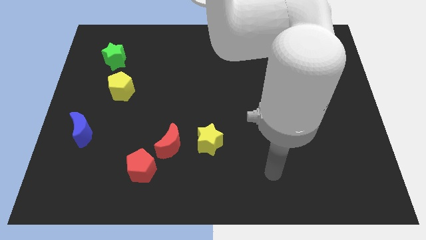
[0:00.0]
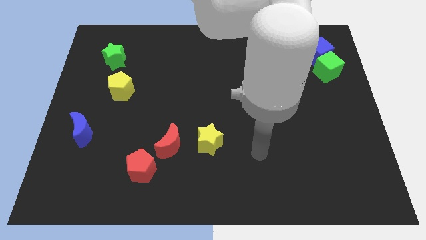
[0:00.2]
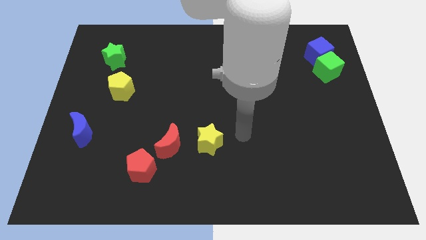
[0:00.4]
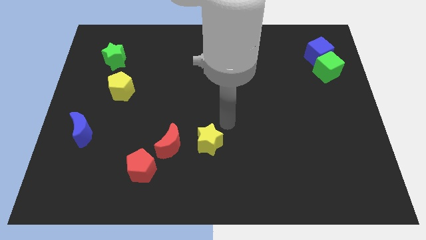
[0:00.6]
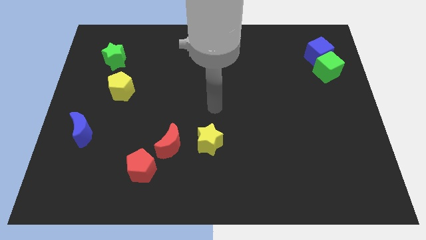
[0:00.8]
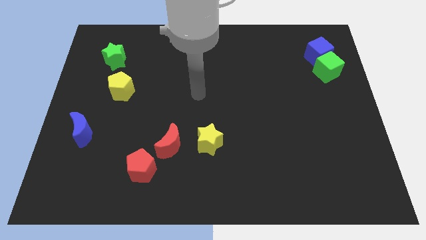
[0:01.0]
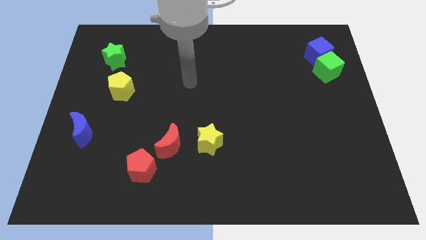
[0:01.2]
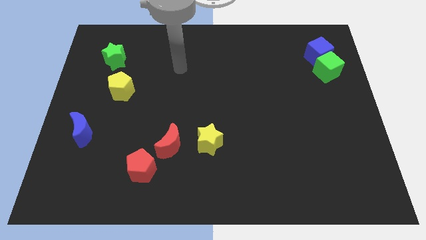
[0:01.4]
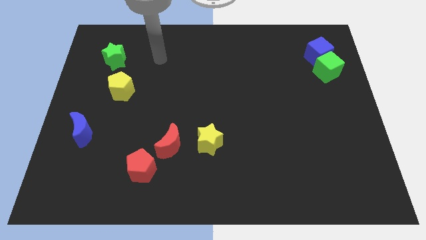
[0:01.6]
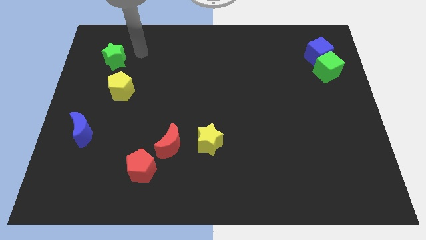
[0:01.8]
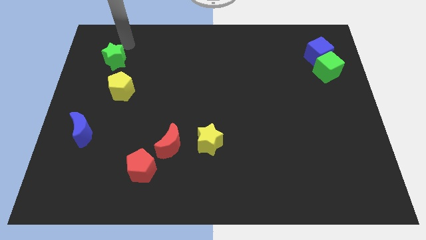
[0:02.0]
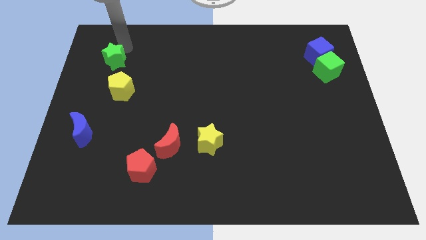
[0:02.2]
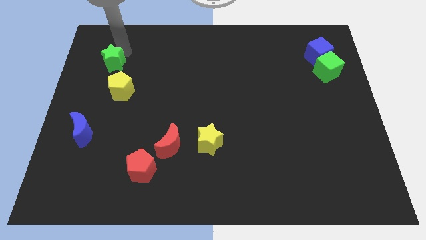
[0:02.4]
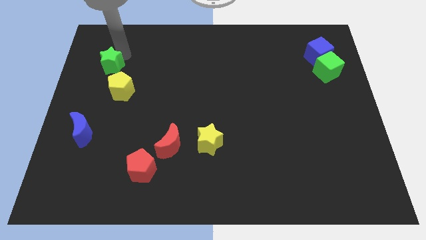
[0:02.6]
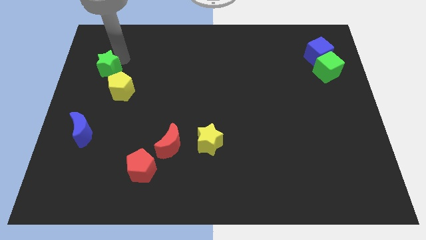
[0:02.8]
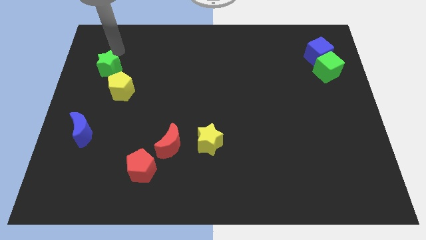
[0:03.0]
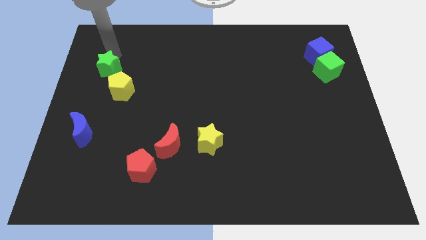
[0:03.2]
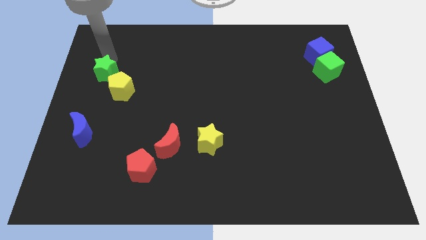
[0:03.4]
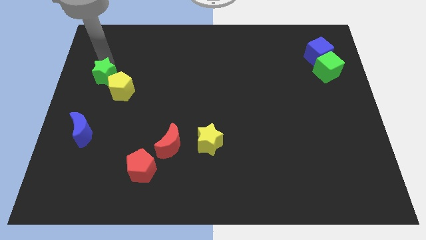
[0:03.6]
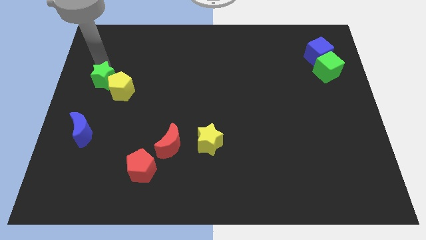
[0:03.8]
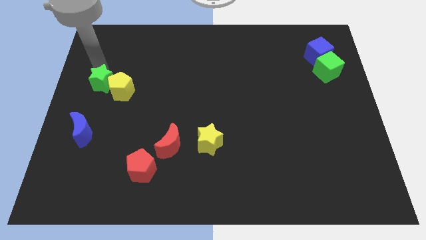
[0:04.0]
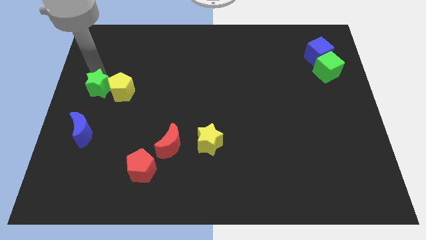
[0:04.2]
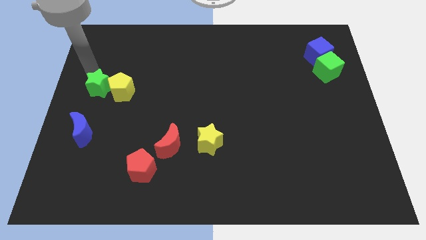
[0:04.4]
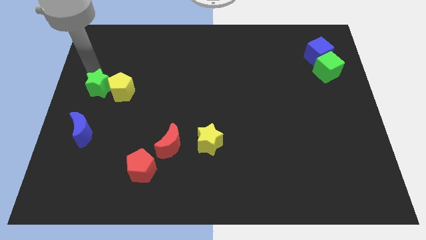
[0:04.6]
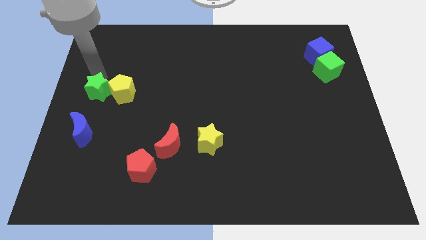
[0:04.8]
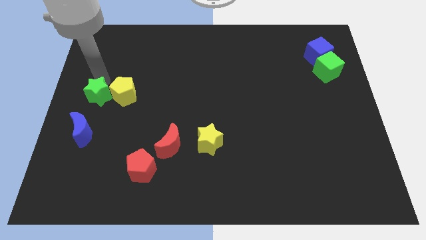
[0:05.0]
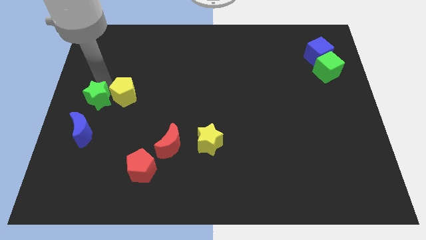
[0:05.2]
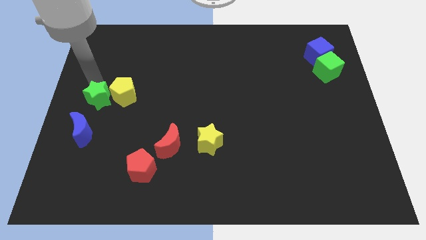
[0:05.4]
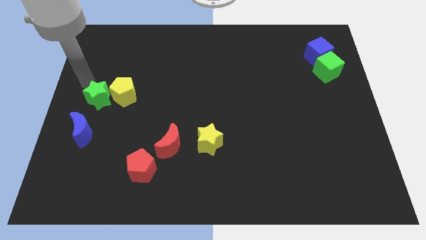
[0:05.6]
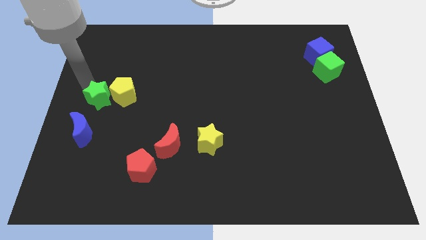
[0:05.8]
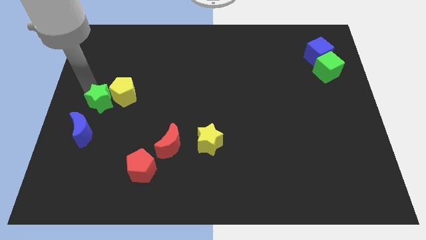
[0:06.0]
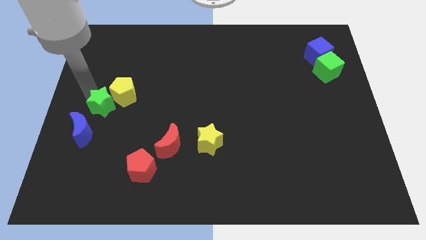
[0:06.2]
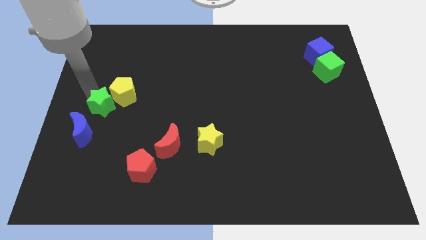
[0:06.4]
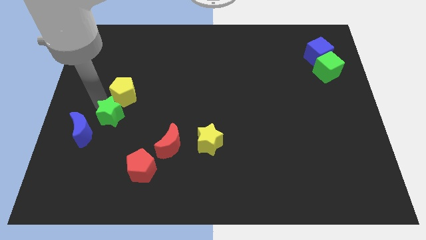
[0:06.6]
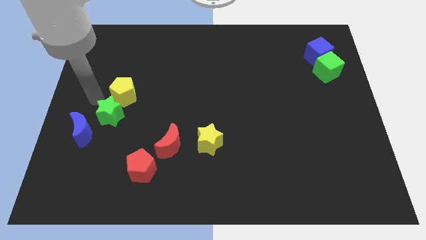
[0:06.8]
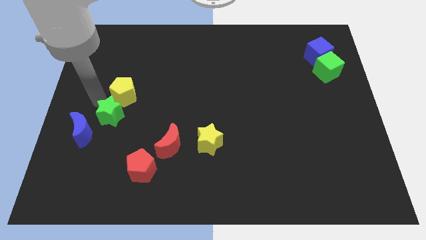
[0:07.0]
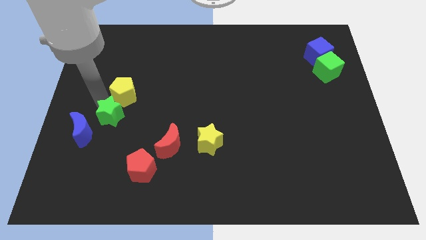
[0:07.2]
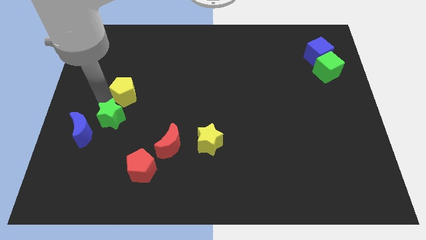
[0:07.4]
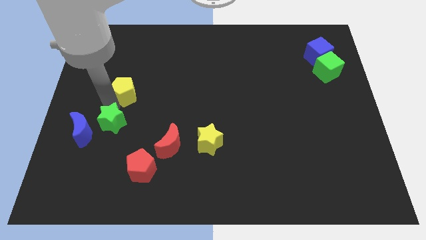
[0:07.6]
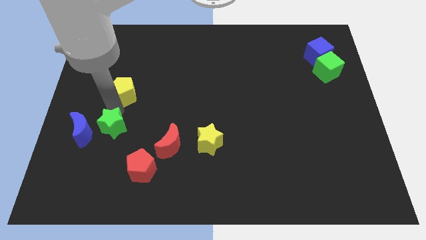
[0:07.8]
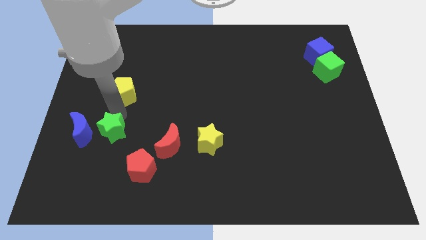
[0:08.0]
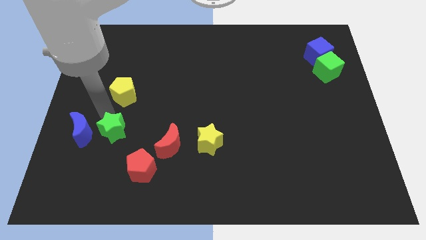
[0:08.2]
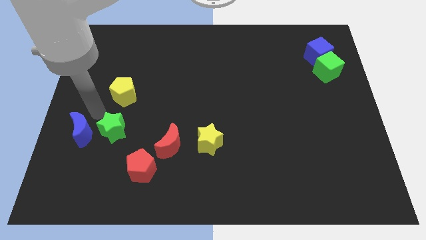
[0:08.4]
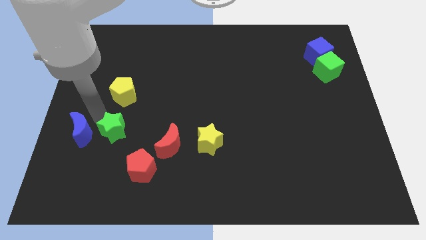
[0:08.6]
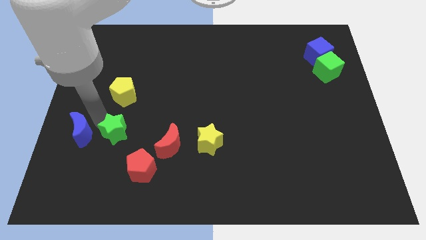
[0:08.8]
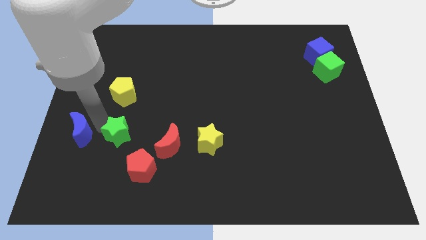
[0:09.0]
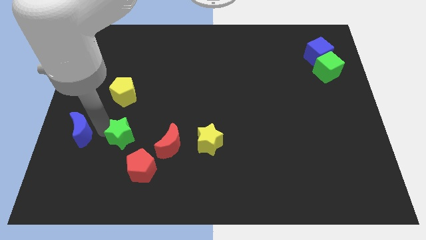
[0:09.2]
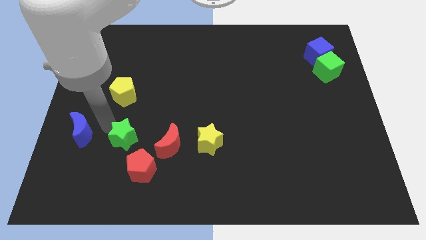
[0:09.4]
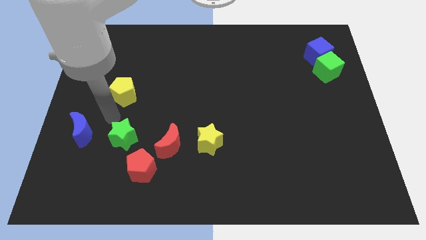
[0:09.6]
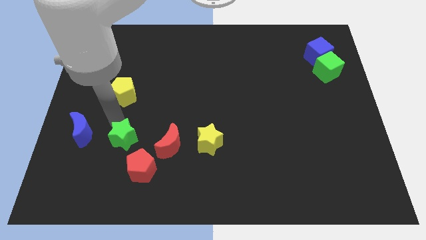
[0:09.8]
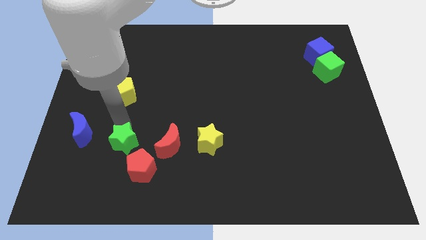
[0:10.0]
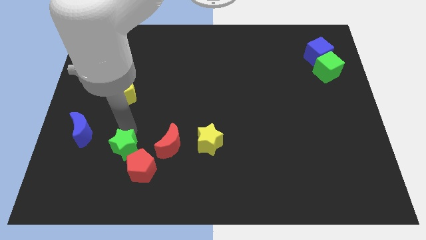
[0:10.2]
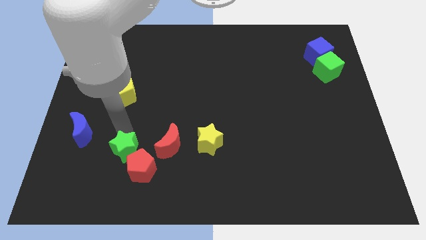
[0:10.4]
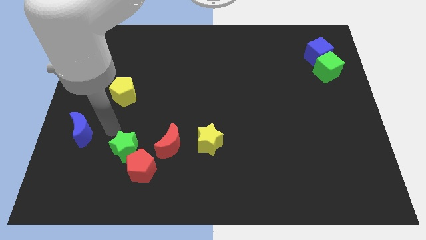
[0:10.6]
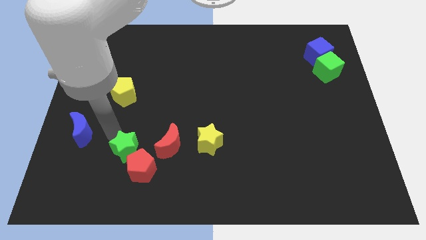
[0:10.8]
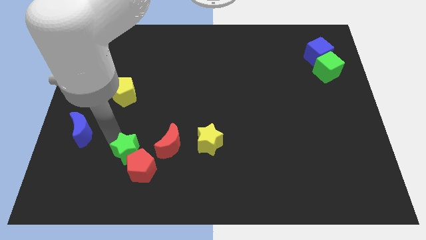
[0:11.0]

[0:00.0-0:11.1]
push the green star to the red pentagon

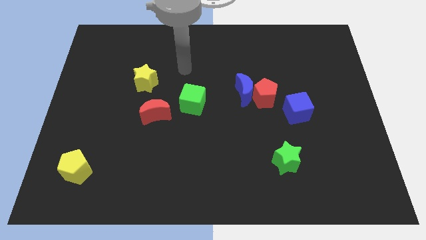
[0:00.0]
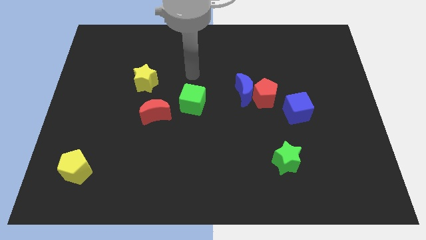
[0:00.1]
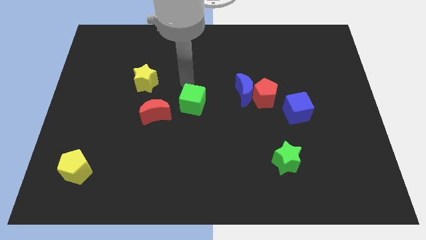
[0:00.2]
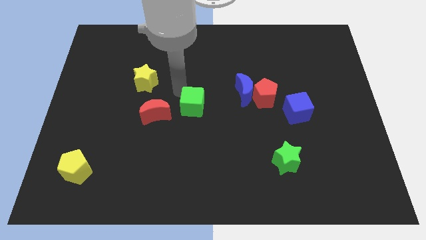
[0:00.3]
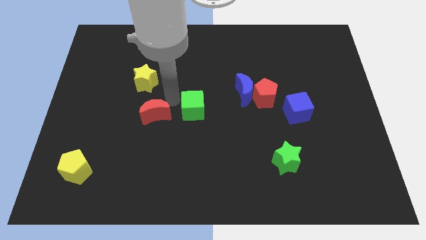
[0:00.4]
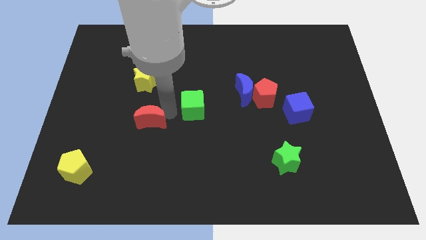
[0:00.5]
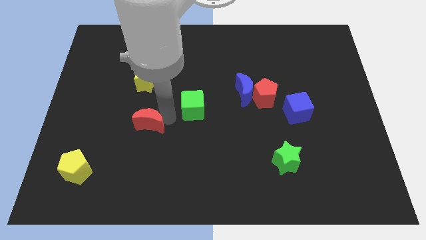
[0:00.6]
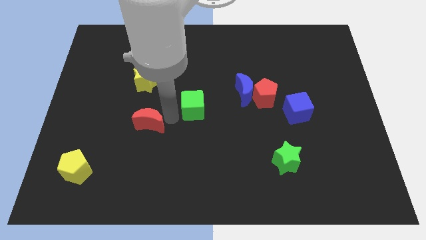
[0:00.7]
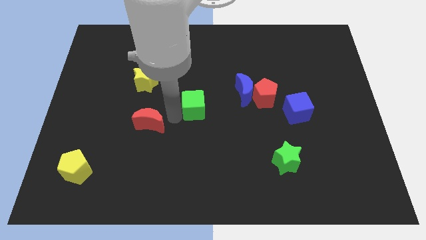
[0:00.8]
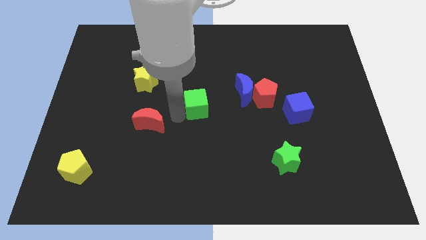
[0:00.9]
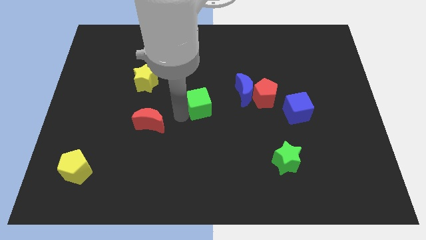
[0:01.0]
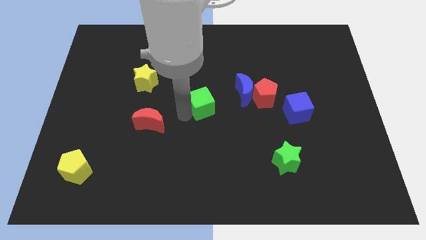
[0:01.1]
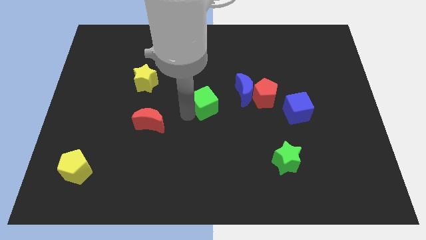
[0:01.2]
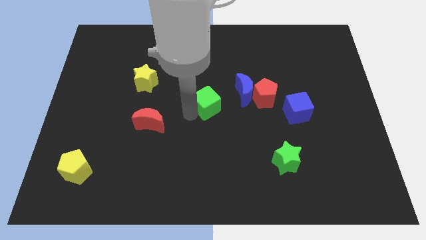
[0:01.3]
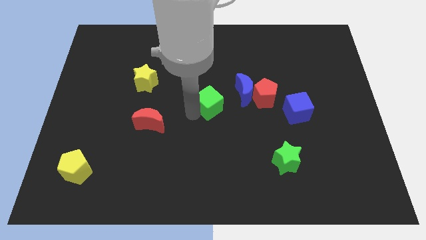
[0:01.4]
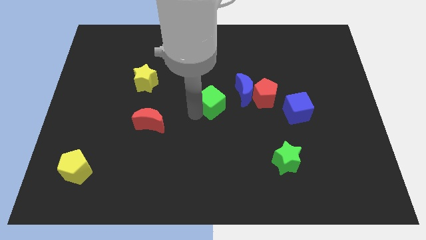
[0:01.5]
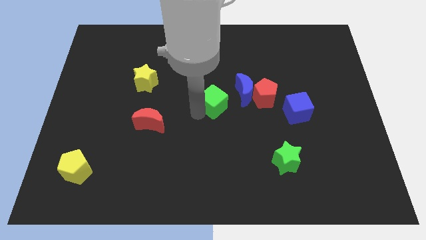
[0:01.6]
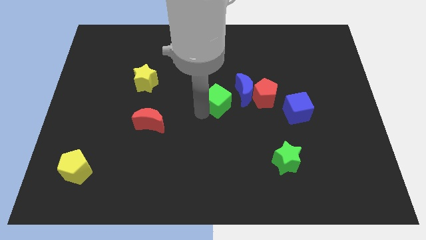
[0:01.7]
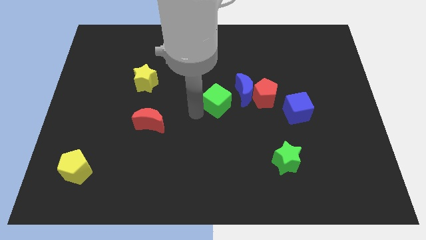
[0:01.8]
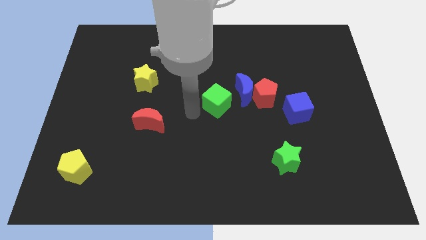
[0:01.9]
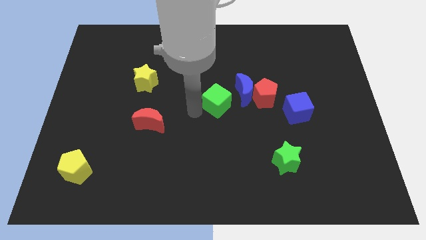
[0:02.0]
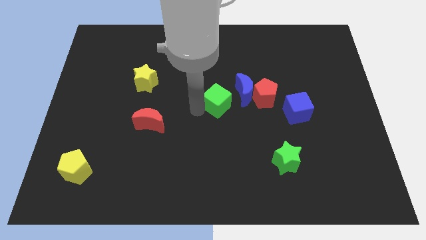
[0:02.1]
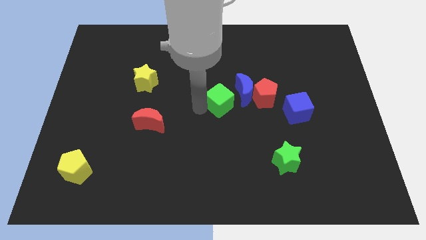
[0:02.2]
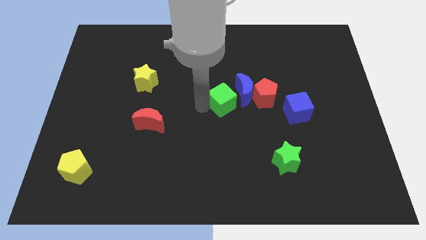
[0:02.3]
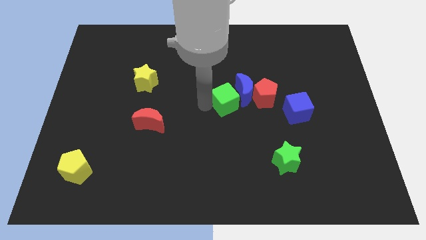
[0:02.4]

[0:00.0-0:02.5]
push the green cube towards the blue moon
